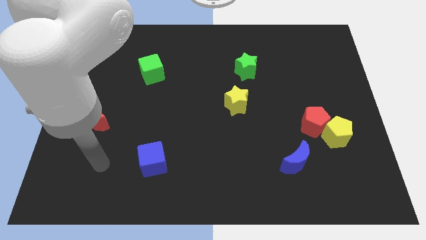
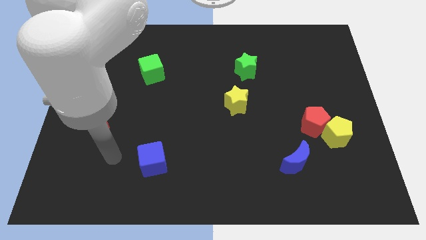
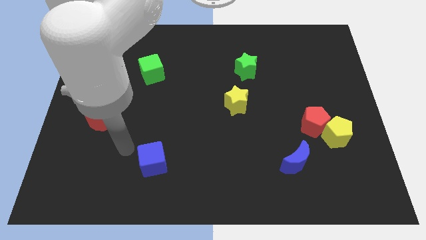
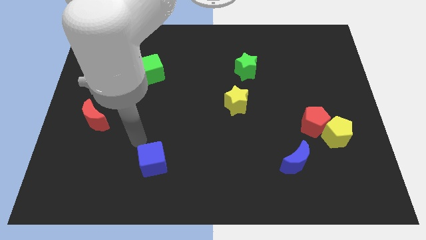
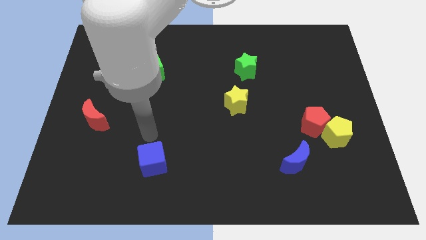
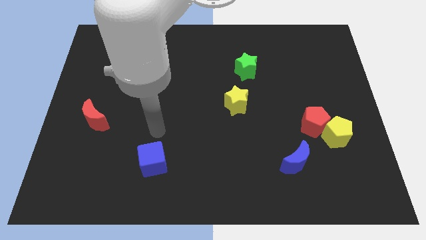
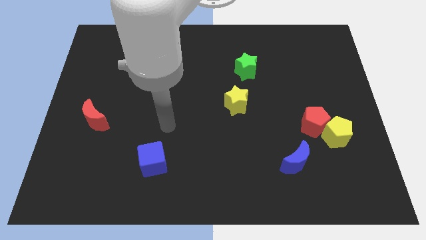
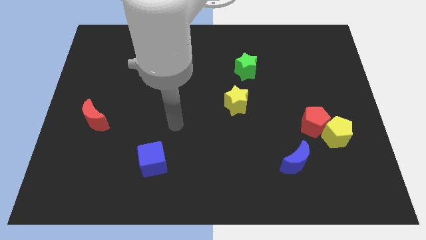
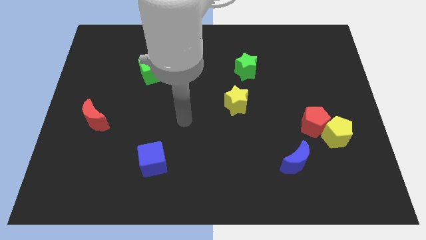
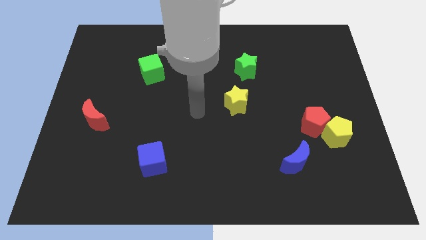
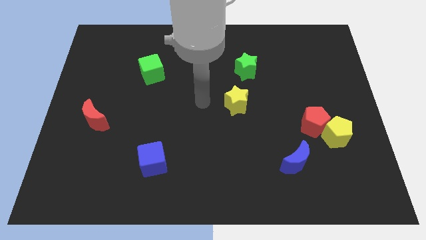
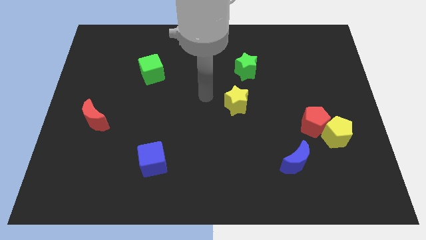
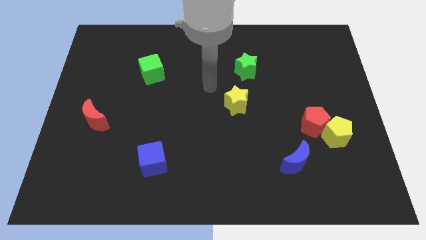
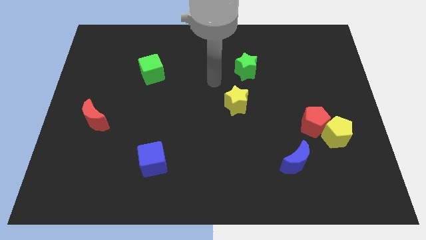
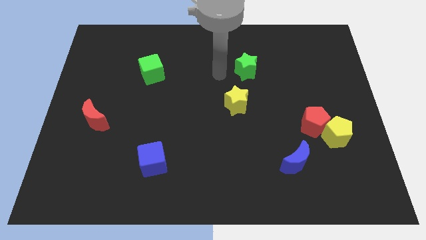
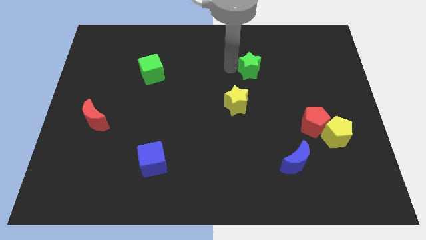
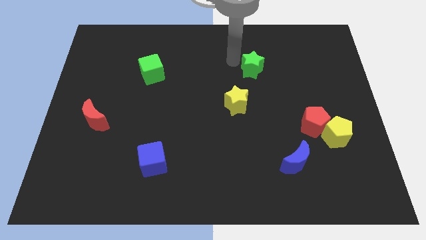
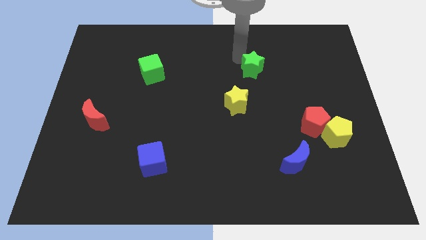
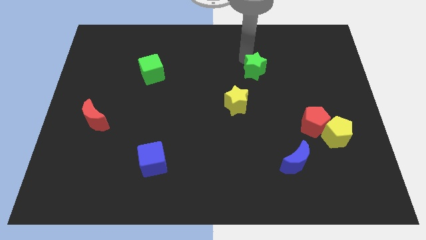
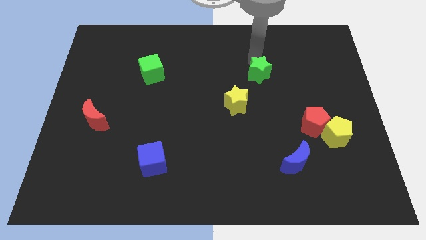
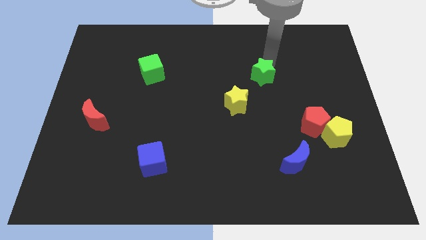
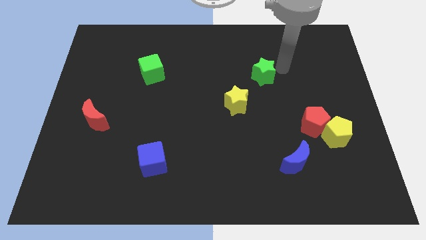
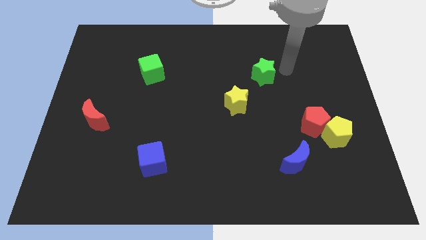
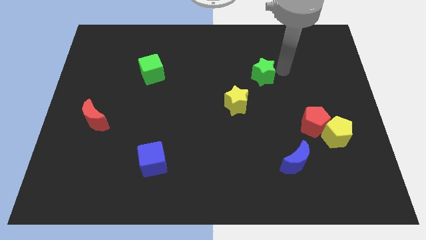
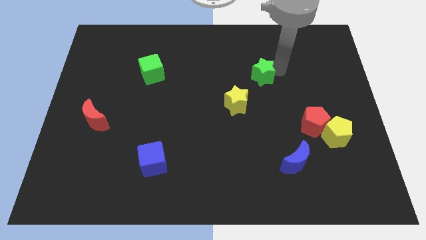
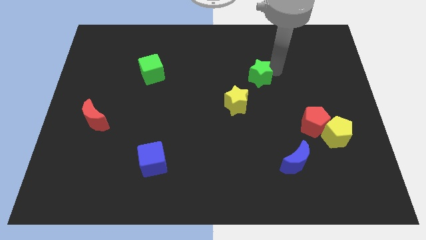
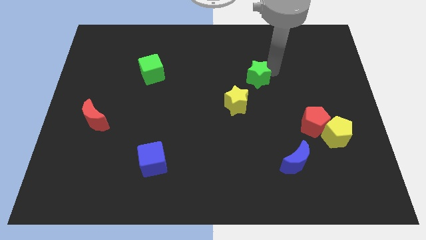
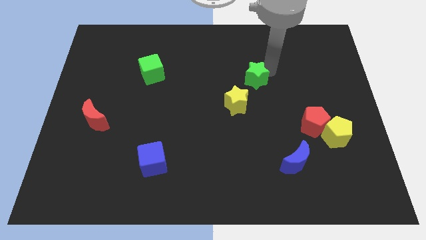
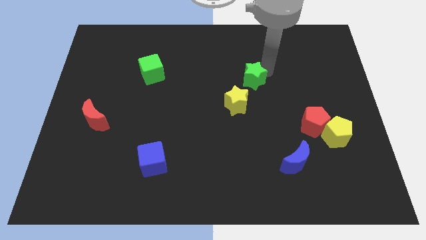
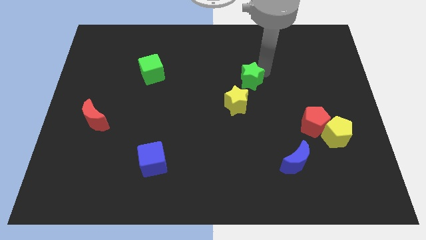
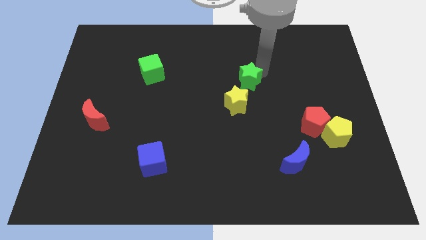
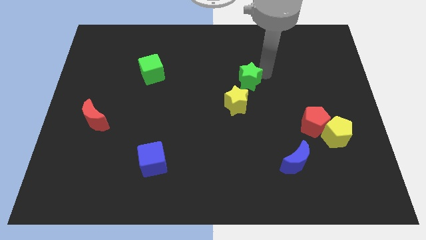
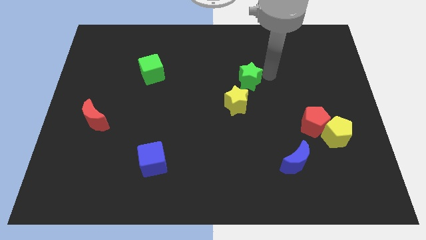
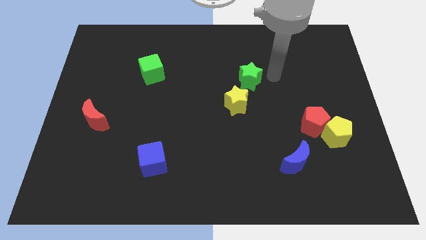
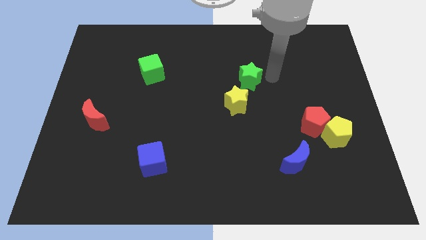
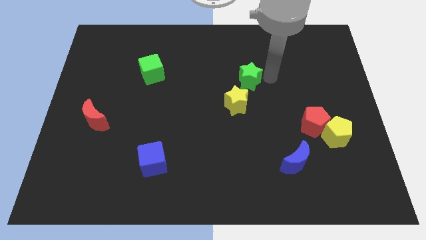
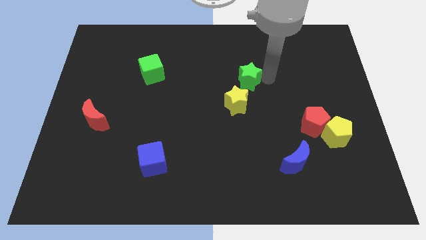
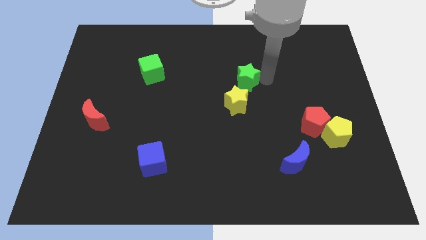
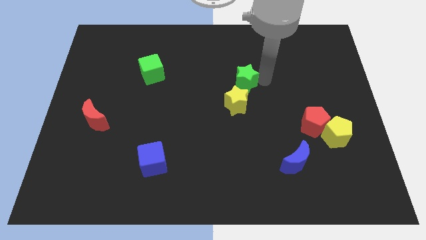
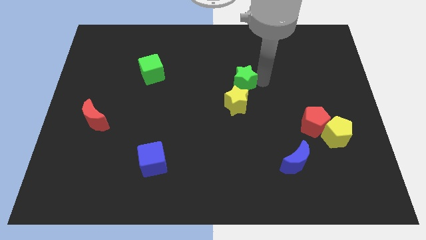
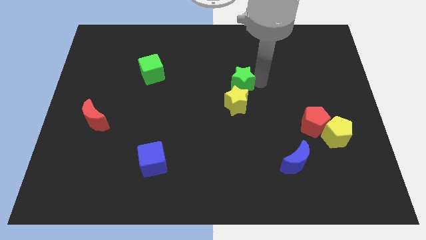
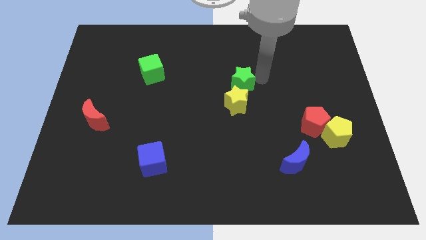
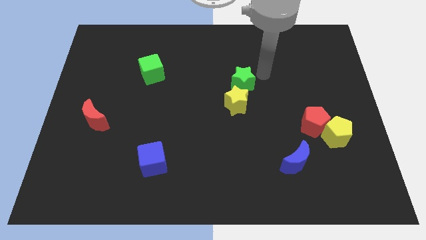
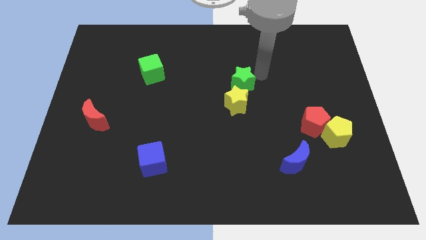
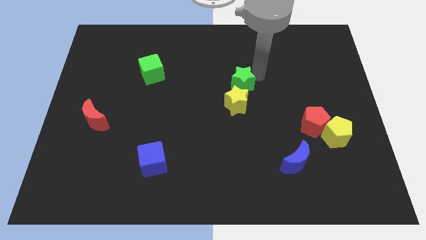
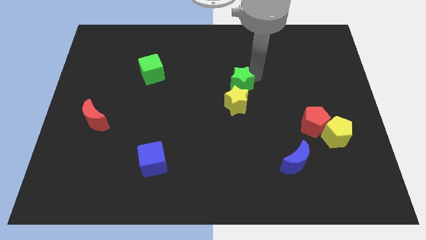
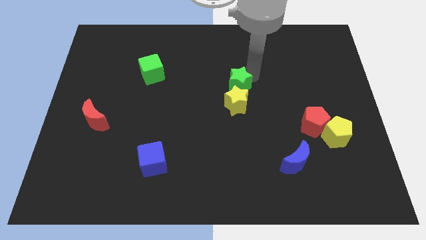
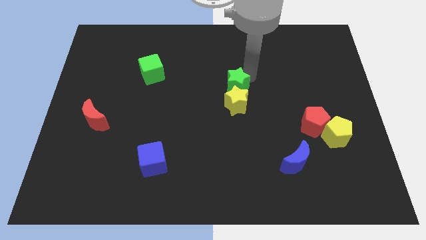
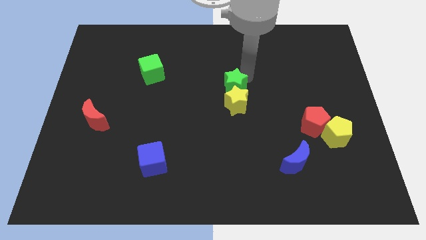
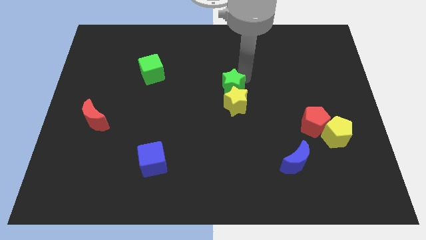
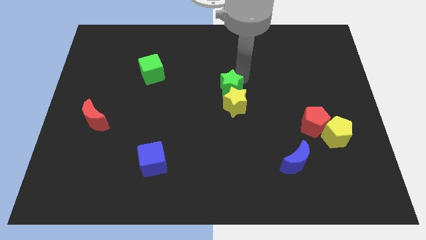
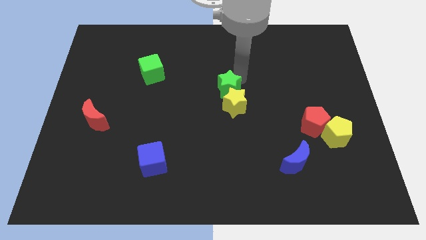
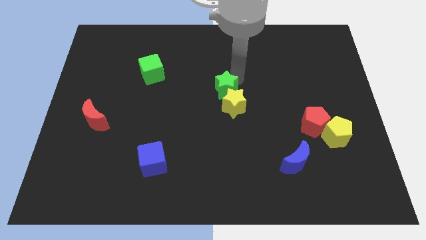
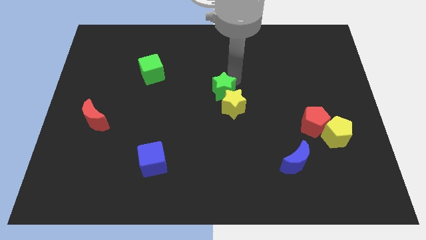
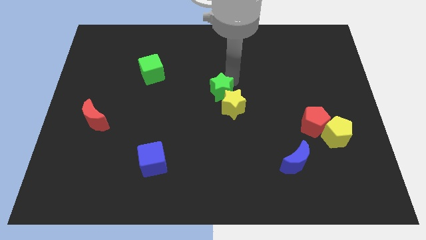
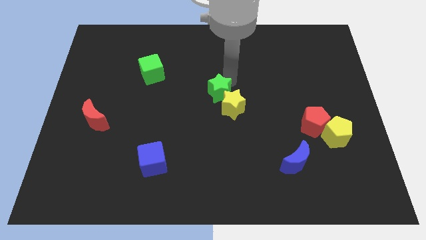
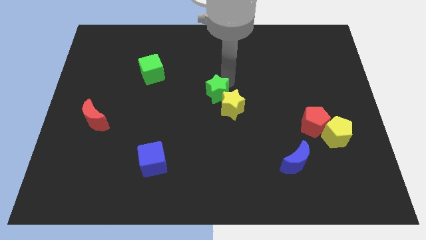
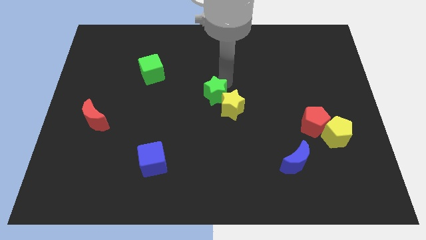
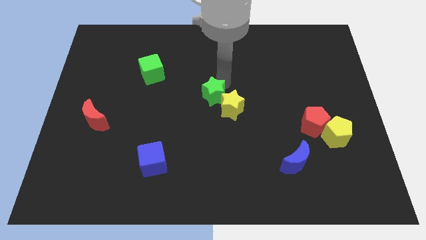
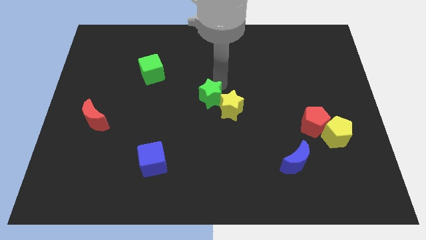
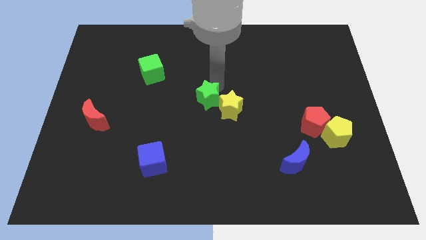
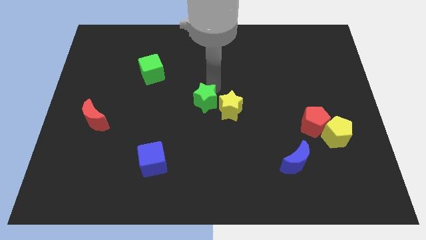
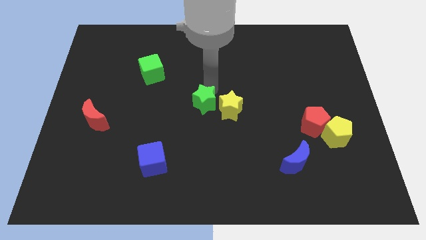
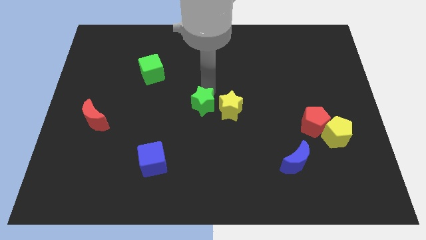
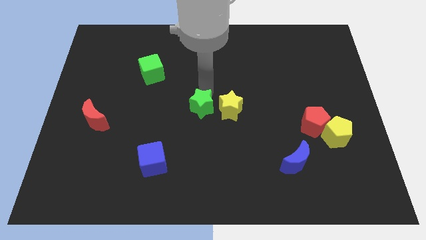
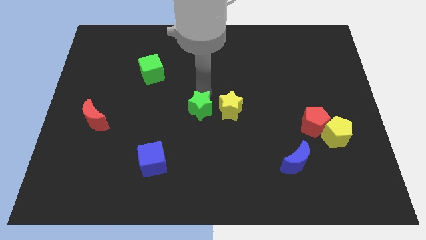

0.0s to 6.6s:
move the green star diagonally down and to the left of the yellow star

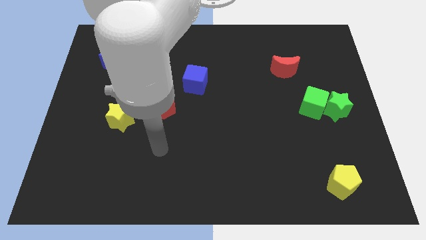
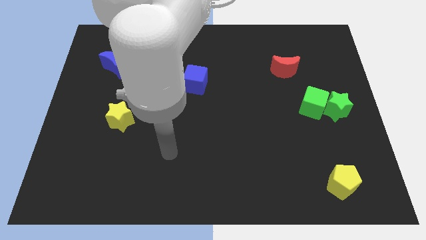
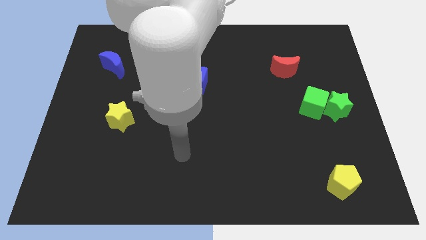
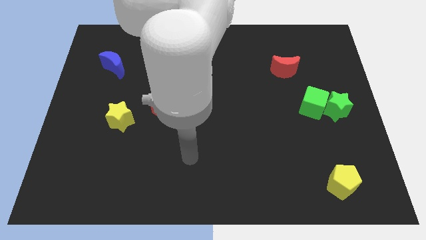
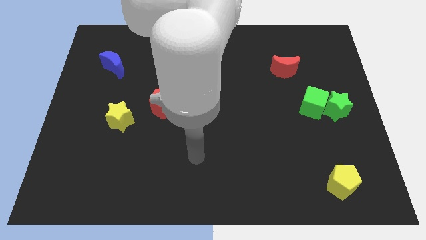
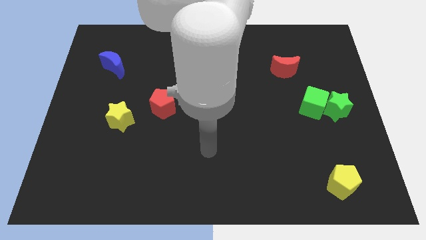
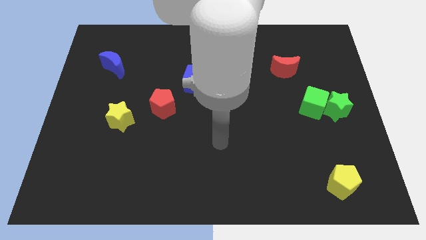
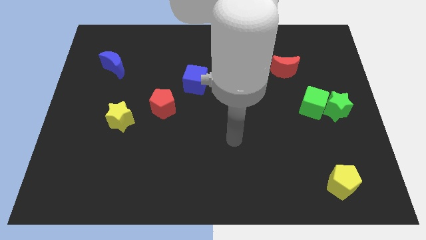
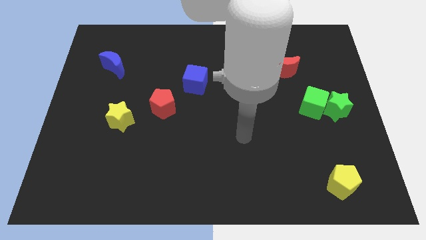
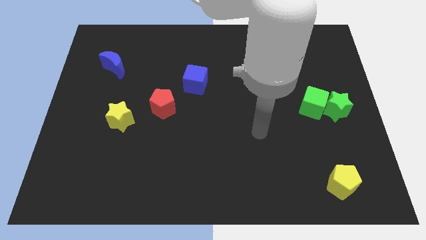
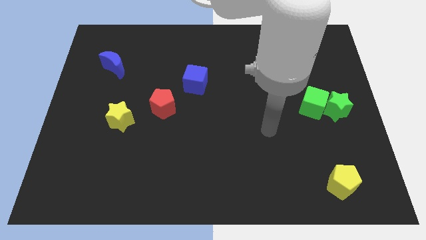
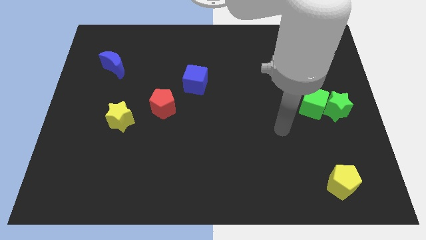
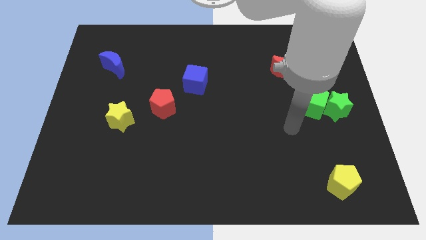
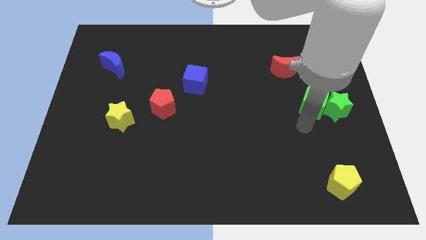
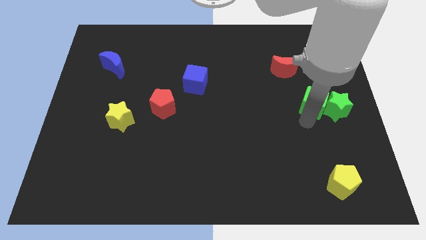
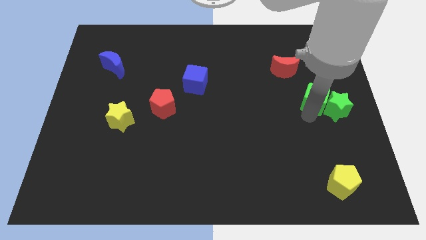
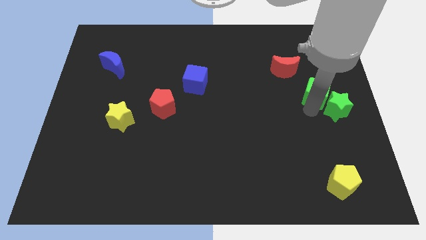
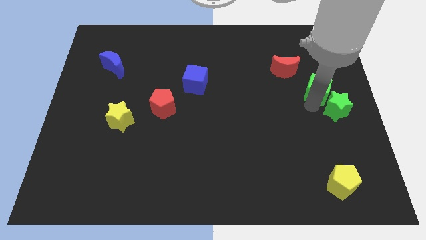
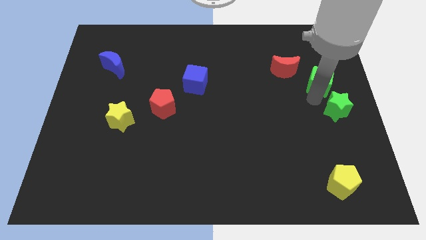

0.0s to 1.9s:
move the green cube to the right side of the red moon
